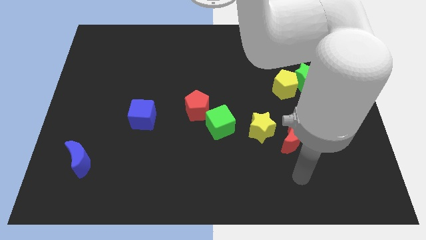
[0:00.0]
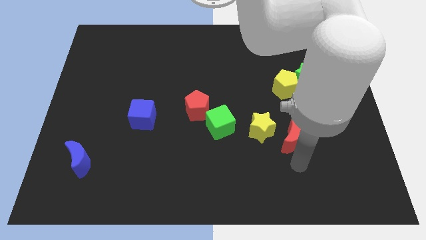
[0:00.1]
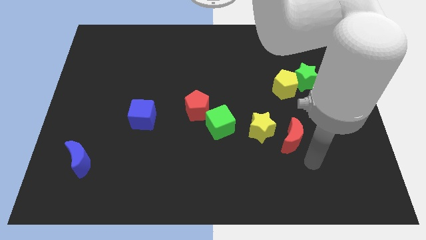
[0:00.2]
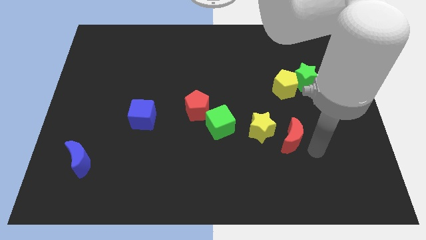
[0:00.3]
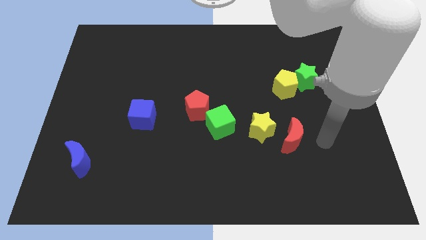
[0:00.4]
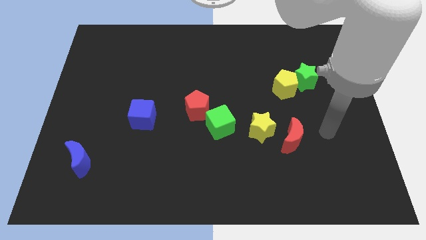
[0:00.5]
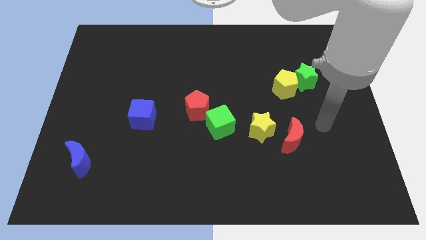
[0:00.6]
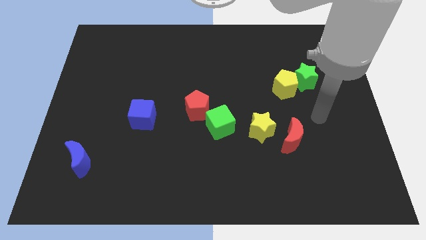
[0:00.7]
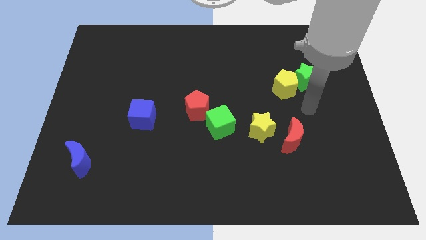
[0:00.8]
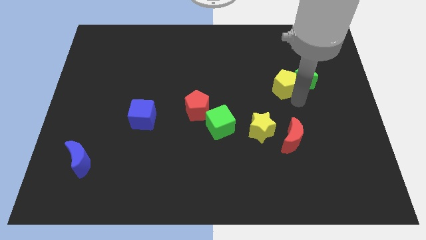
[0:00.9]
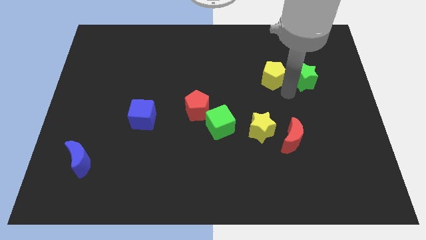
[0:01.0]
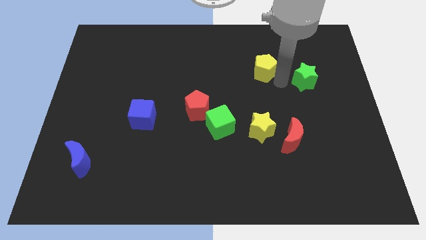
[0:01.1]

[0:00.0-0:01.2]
pull the green star apart from the yellow pentagon

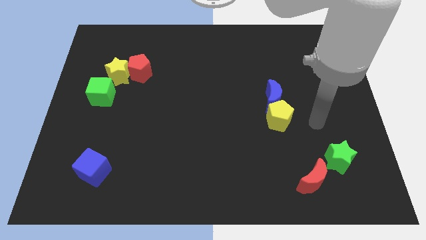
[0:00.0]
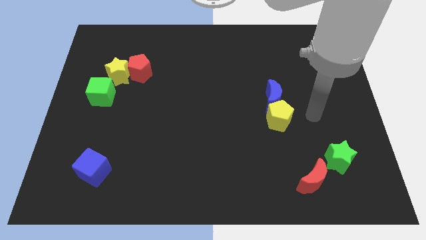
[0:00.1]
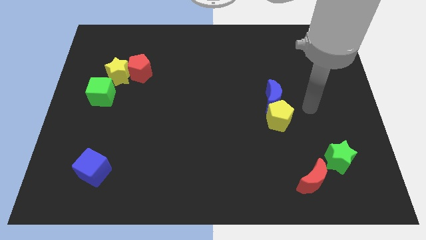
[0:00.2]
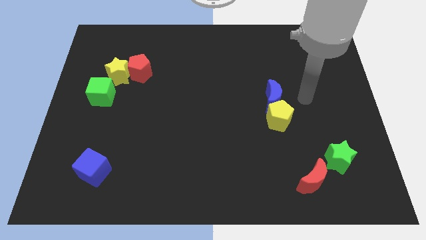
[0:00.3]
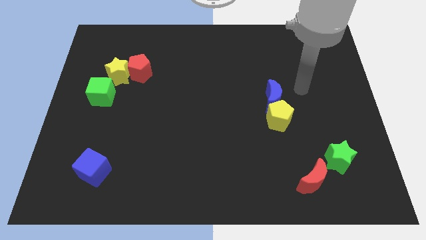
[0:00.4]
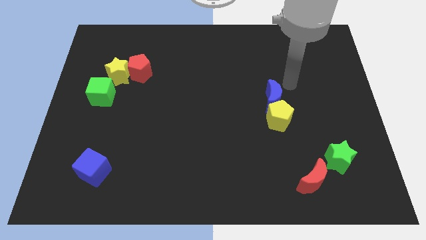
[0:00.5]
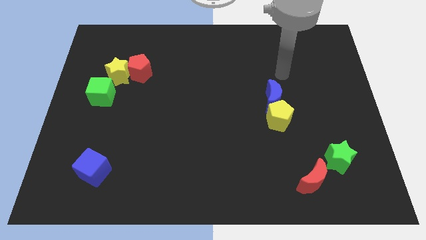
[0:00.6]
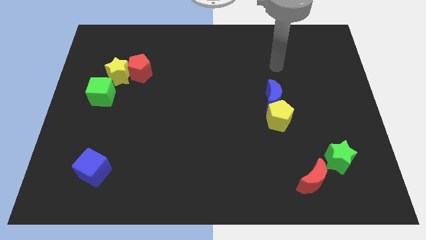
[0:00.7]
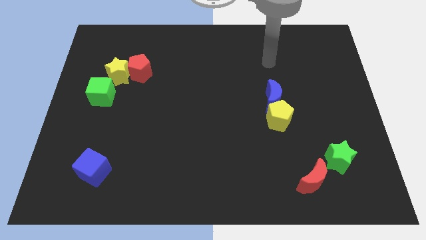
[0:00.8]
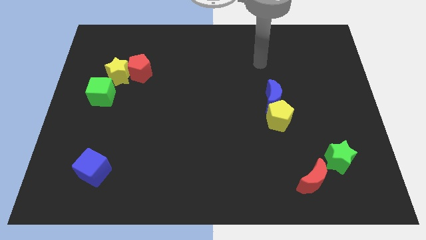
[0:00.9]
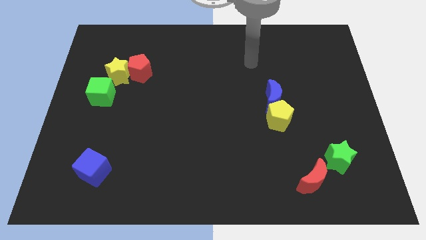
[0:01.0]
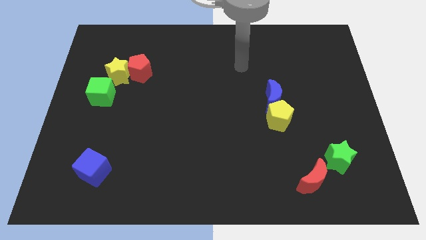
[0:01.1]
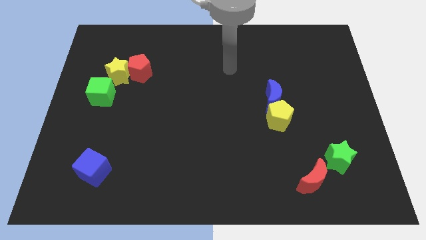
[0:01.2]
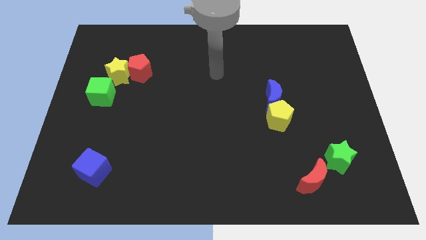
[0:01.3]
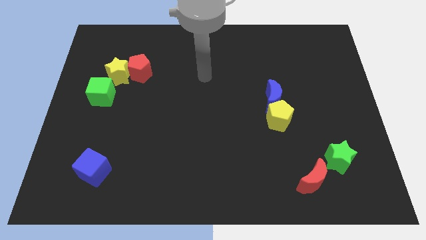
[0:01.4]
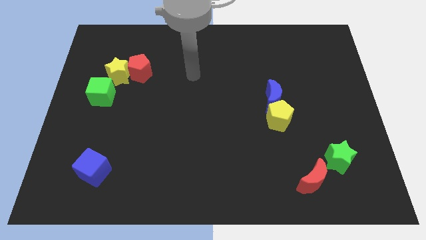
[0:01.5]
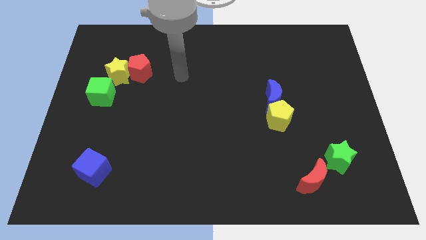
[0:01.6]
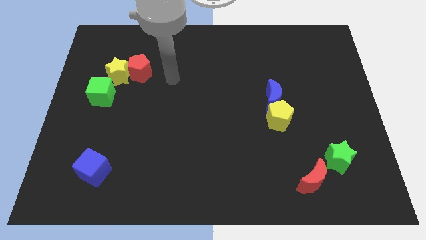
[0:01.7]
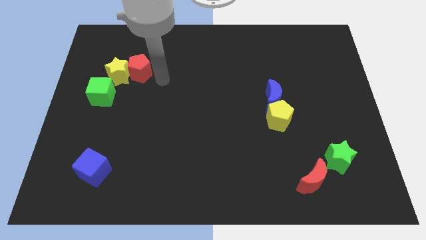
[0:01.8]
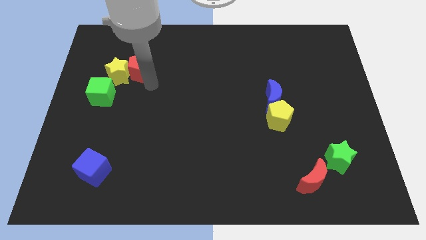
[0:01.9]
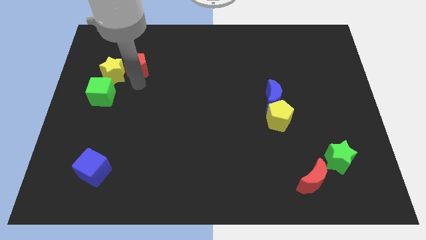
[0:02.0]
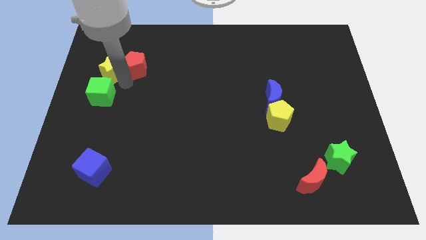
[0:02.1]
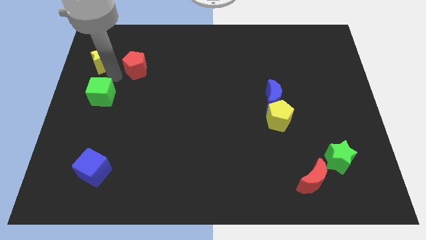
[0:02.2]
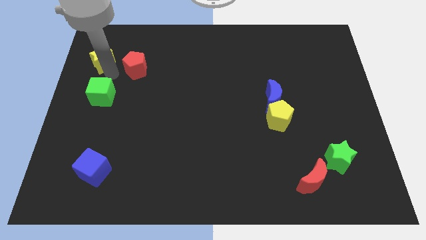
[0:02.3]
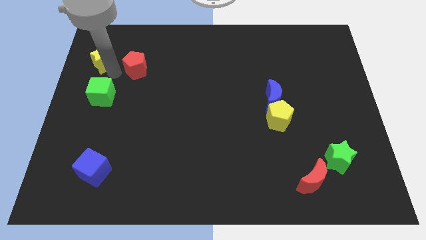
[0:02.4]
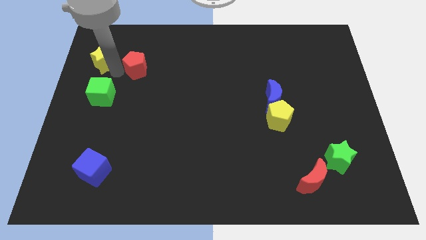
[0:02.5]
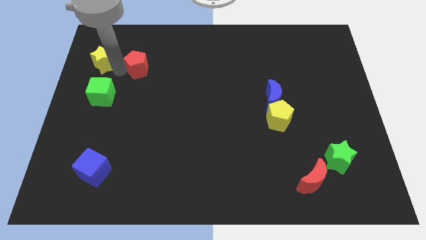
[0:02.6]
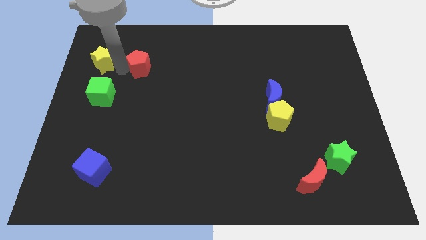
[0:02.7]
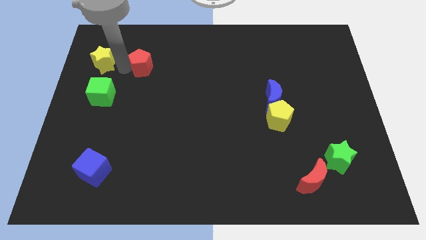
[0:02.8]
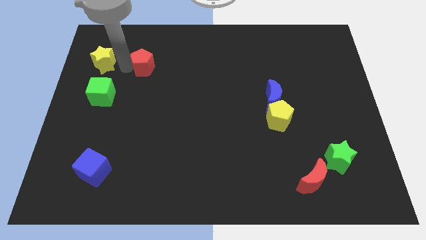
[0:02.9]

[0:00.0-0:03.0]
separate the red pentagon from the yellow star

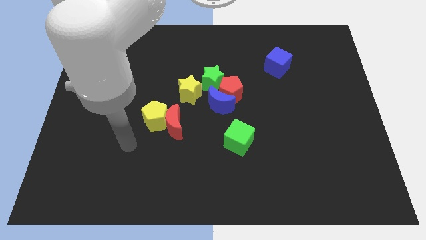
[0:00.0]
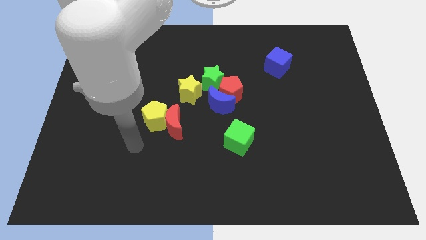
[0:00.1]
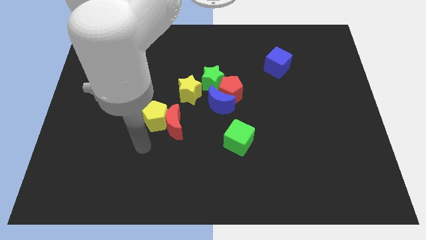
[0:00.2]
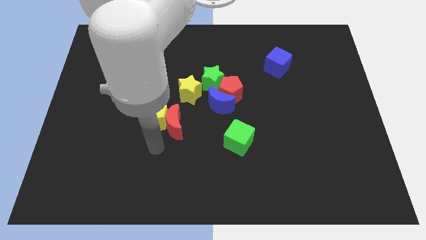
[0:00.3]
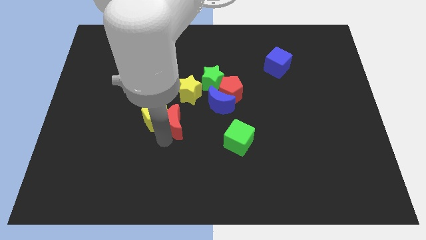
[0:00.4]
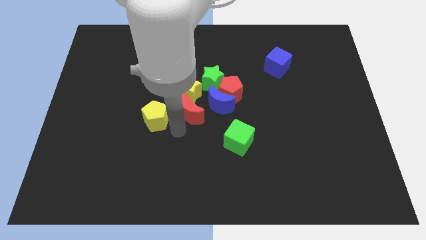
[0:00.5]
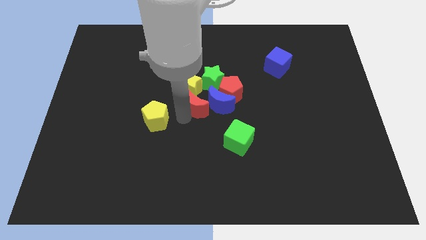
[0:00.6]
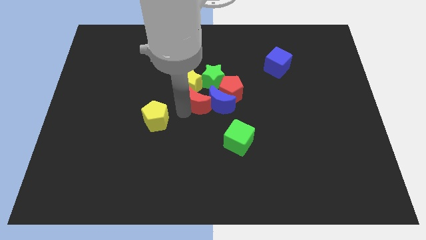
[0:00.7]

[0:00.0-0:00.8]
move the yellow pentagon away from the red moon

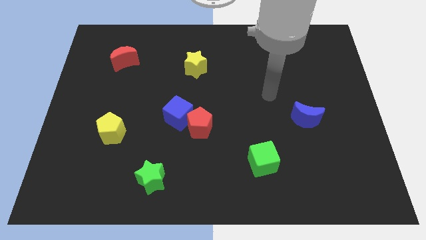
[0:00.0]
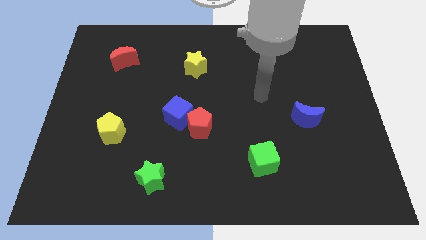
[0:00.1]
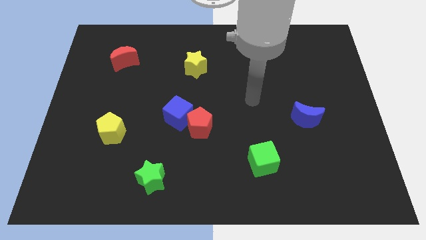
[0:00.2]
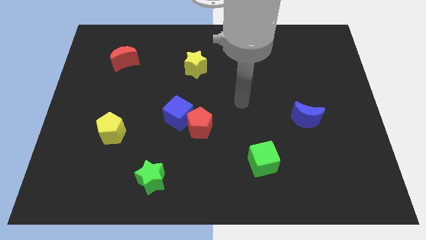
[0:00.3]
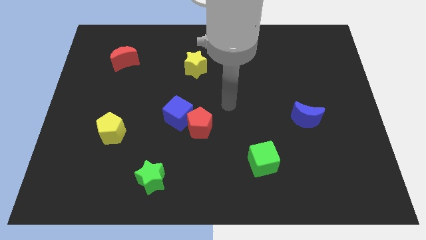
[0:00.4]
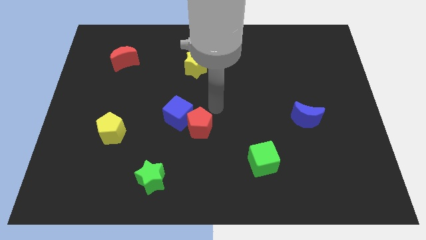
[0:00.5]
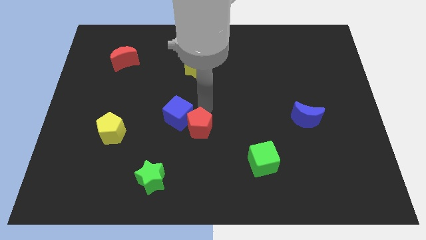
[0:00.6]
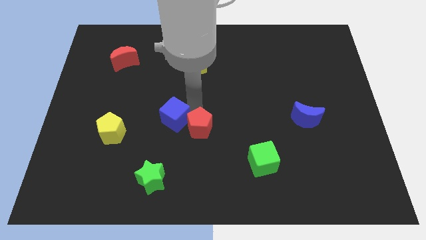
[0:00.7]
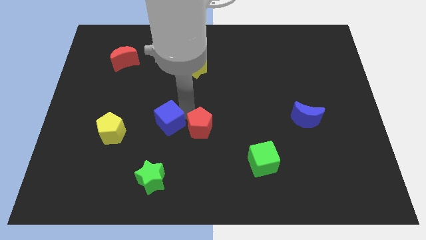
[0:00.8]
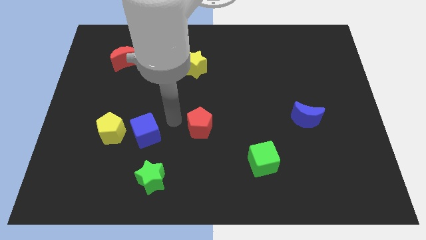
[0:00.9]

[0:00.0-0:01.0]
pull the red pentagon apart from the blue cube

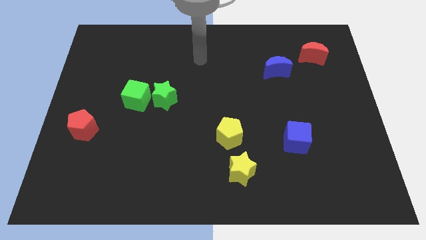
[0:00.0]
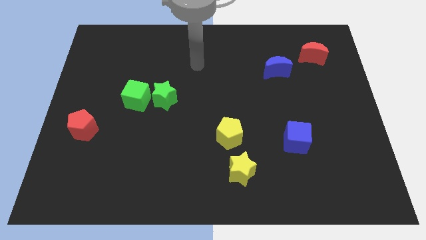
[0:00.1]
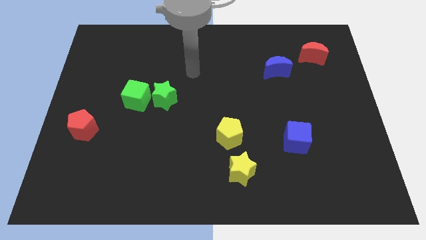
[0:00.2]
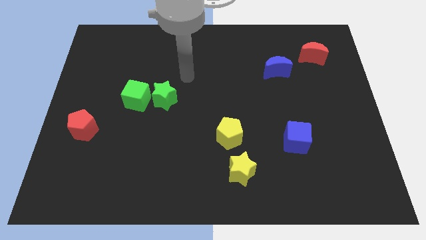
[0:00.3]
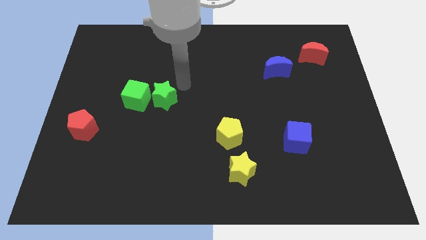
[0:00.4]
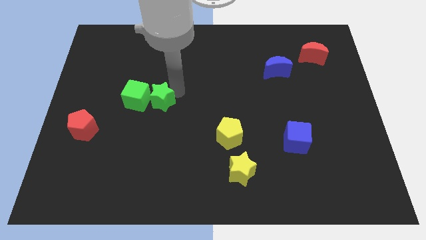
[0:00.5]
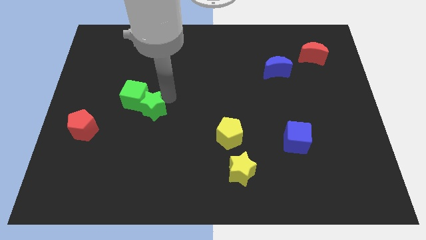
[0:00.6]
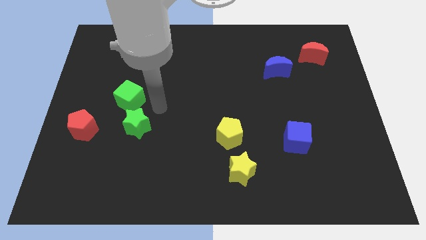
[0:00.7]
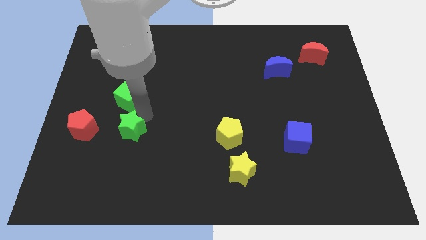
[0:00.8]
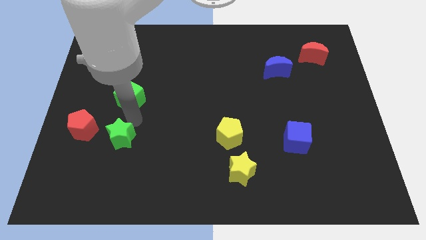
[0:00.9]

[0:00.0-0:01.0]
pull the green cube apart from the green star

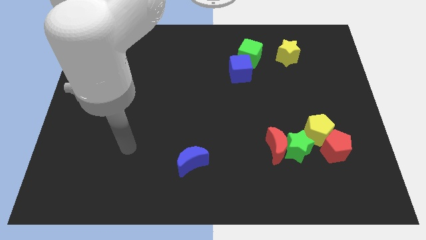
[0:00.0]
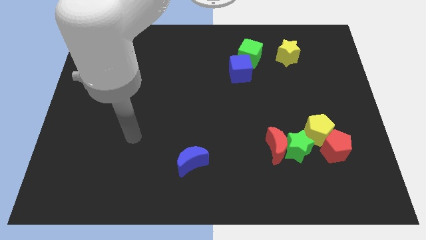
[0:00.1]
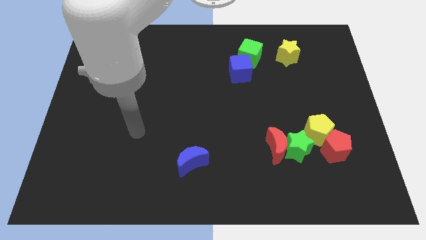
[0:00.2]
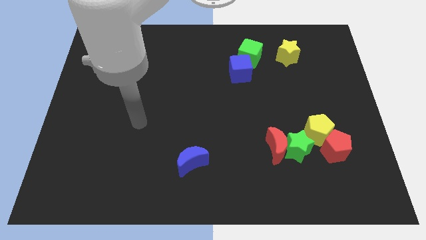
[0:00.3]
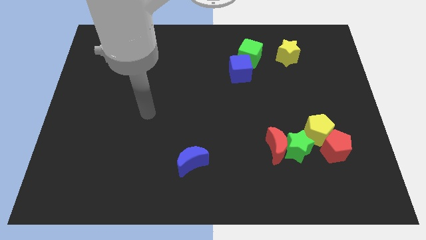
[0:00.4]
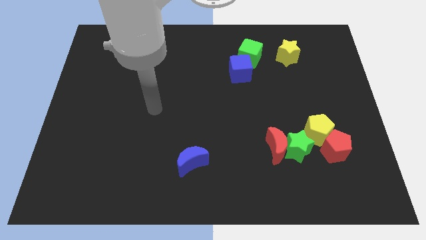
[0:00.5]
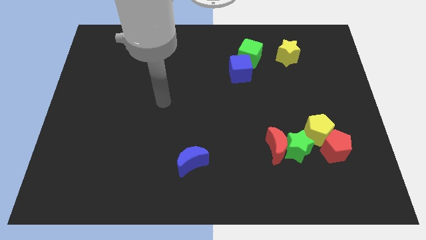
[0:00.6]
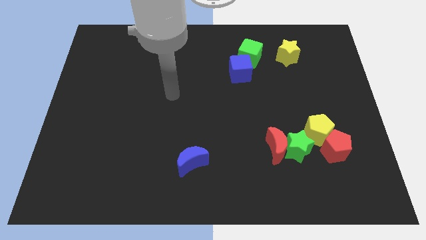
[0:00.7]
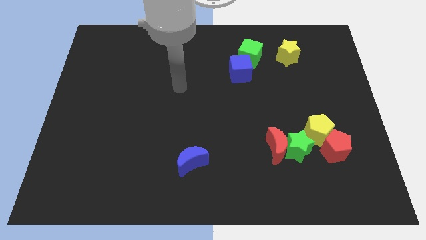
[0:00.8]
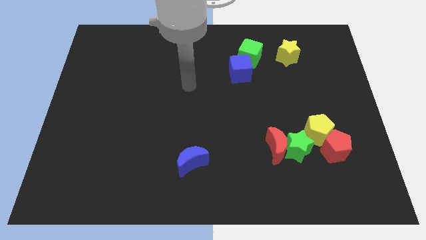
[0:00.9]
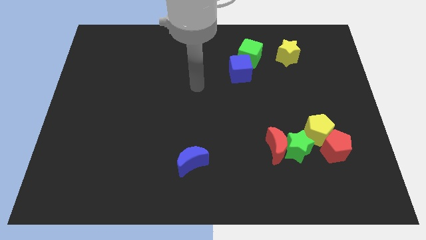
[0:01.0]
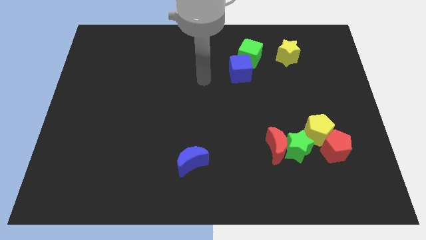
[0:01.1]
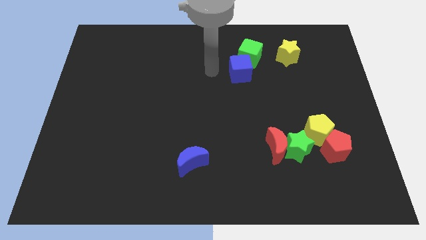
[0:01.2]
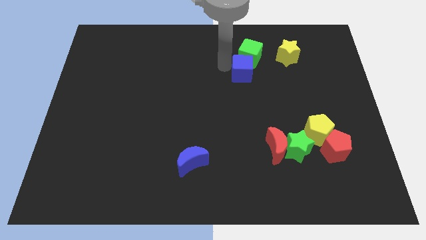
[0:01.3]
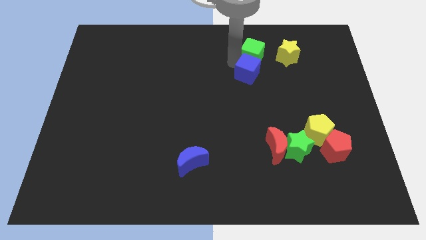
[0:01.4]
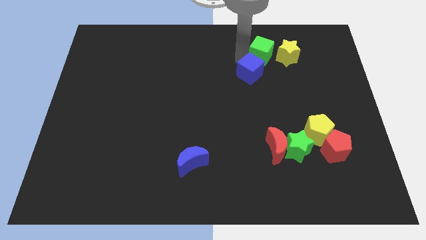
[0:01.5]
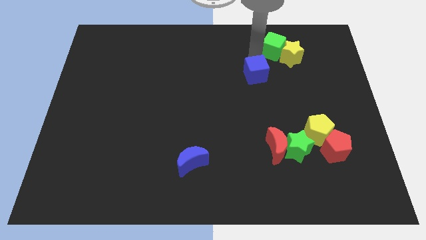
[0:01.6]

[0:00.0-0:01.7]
pull the blue cube apart from the green cube

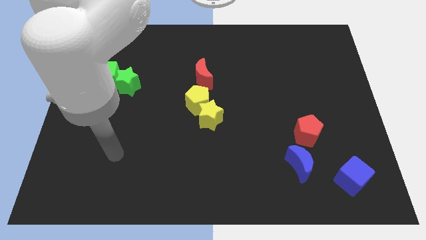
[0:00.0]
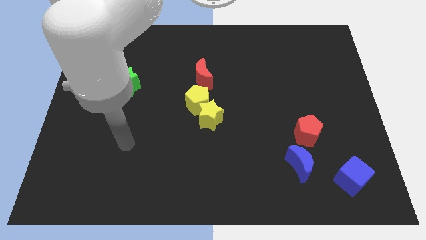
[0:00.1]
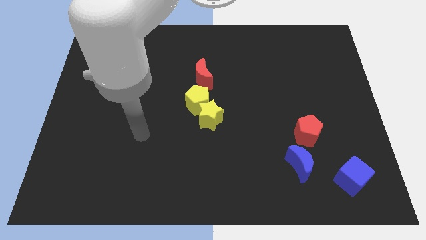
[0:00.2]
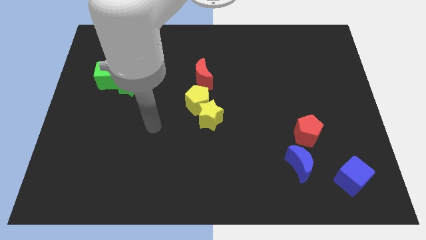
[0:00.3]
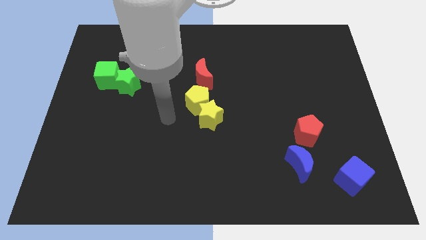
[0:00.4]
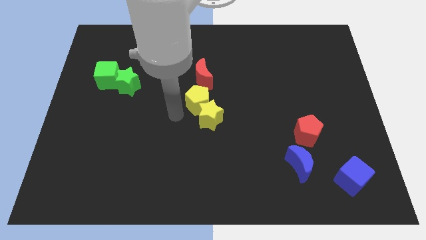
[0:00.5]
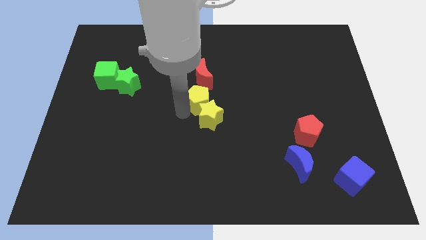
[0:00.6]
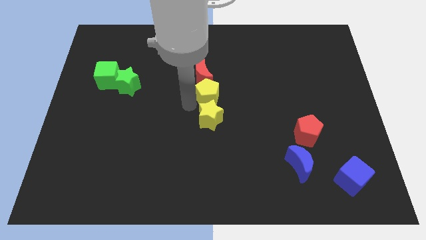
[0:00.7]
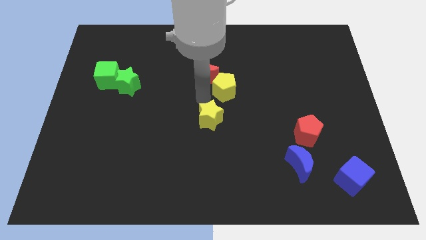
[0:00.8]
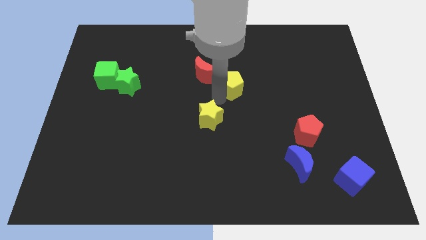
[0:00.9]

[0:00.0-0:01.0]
move the yellow star away from the yellow pentagon
